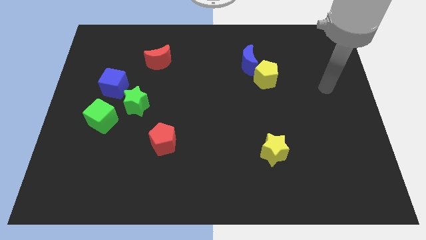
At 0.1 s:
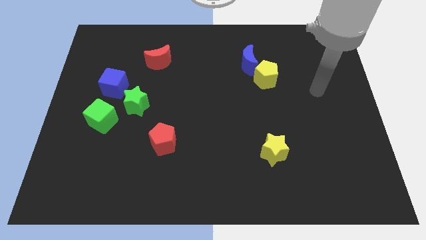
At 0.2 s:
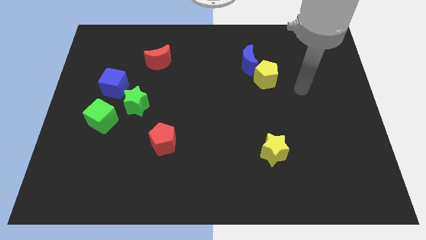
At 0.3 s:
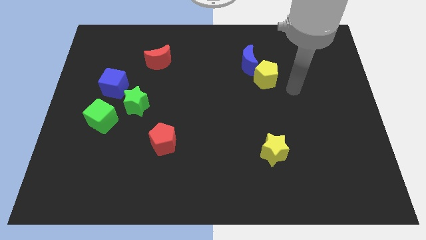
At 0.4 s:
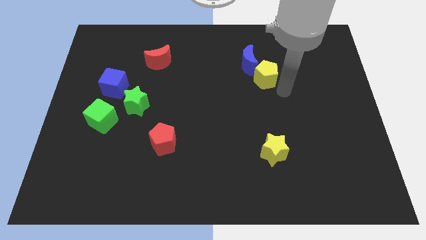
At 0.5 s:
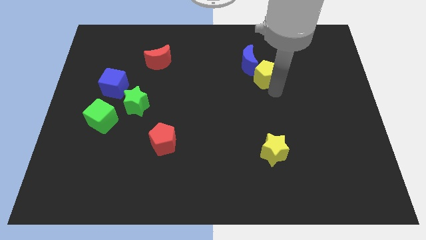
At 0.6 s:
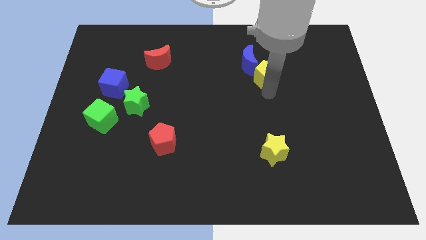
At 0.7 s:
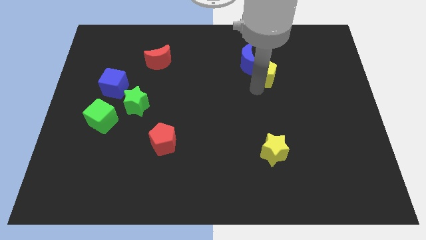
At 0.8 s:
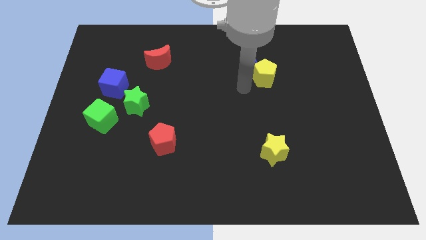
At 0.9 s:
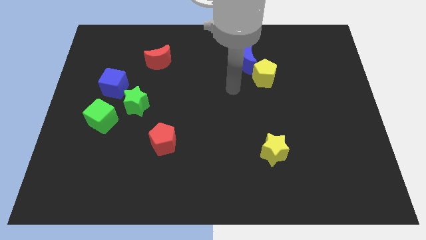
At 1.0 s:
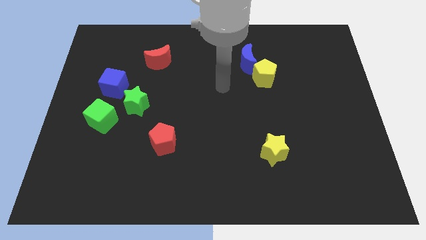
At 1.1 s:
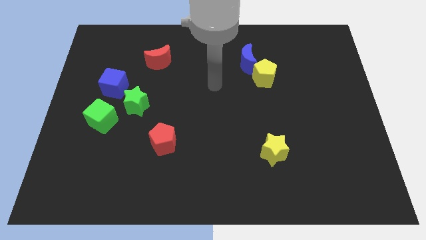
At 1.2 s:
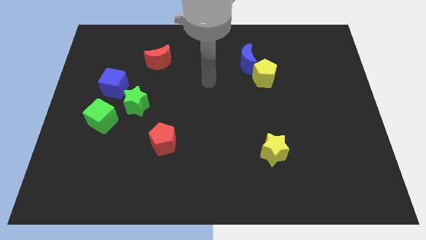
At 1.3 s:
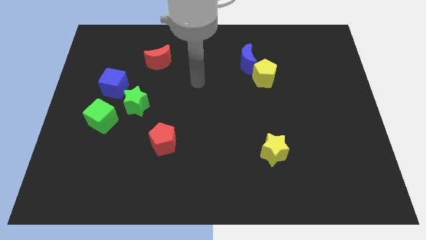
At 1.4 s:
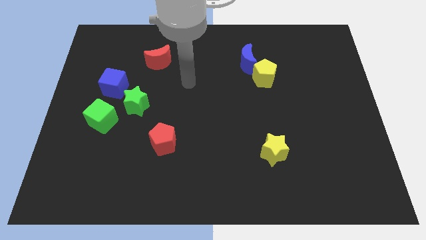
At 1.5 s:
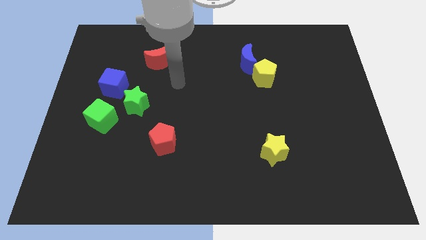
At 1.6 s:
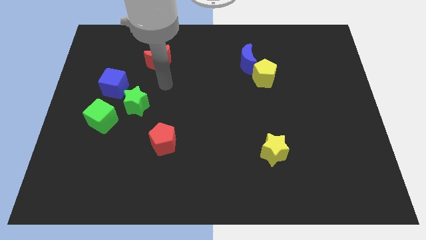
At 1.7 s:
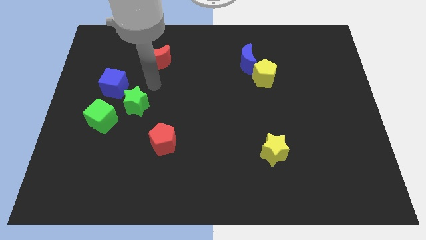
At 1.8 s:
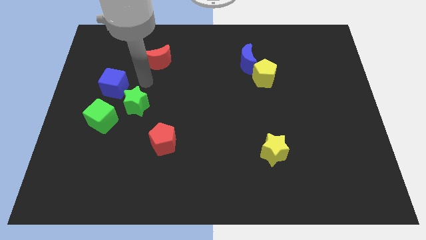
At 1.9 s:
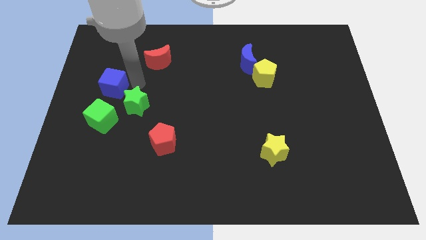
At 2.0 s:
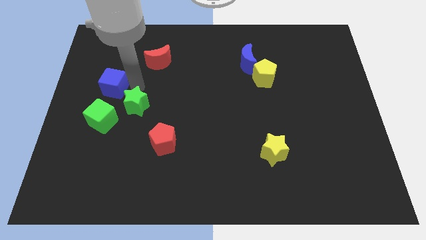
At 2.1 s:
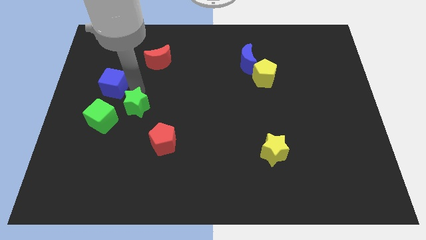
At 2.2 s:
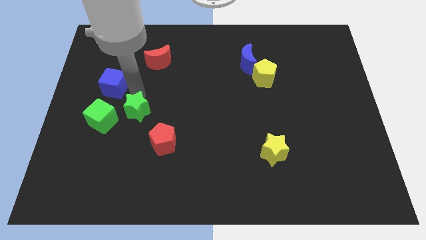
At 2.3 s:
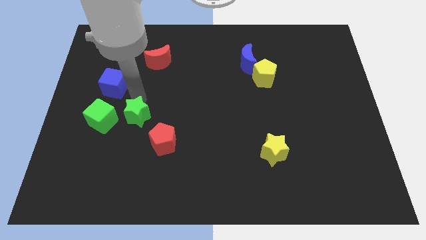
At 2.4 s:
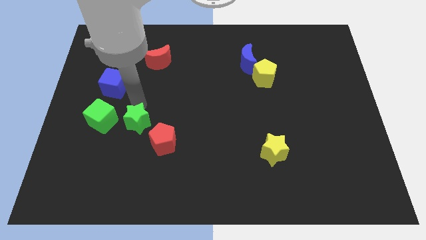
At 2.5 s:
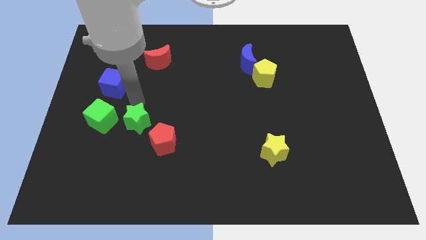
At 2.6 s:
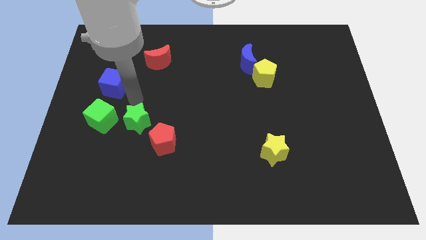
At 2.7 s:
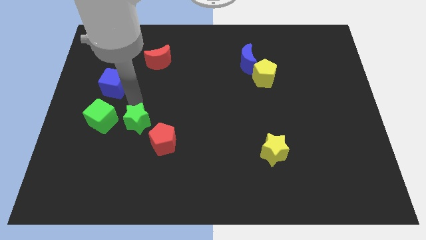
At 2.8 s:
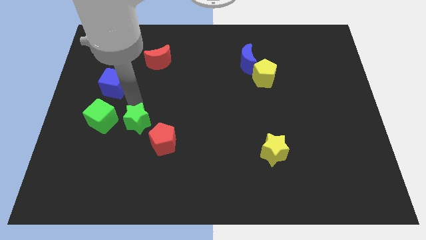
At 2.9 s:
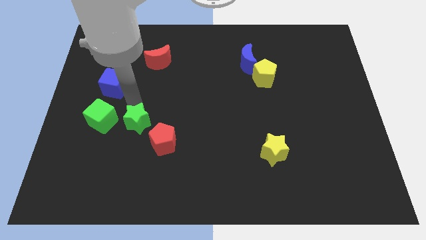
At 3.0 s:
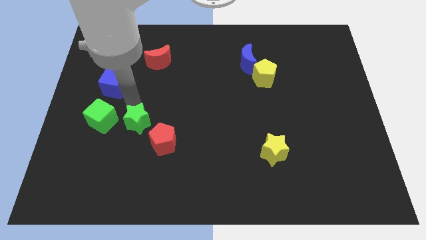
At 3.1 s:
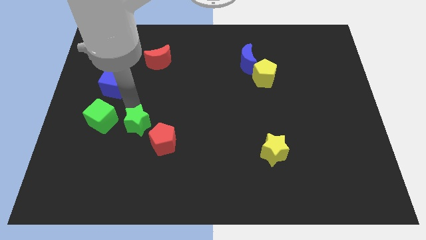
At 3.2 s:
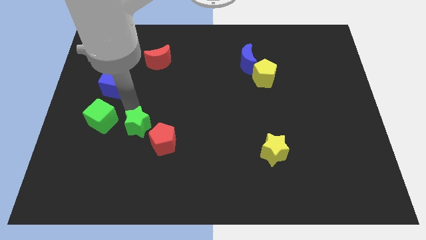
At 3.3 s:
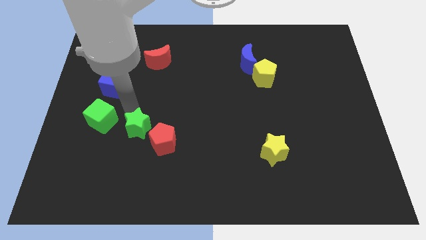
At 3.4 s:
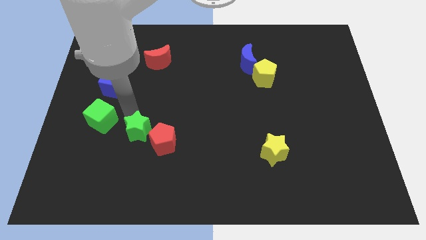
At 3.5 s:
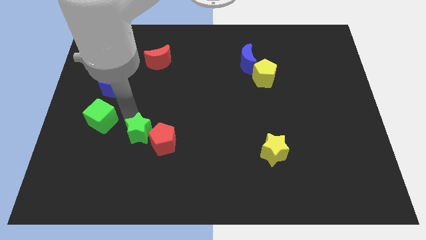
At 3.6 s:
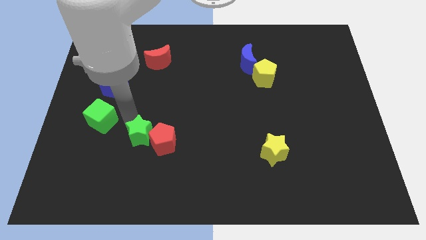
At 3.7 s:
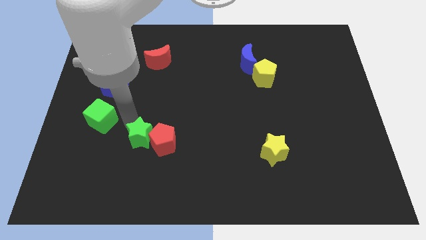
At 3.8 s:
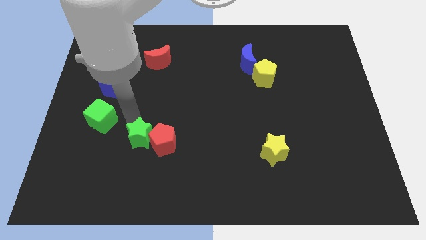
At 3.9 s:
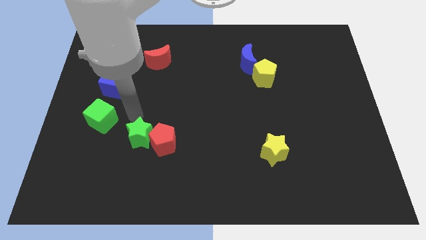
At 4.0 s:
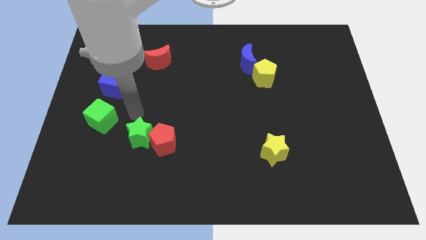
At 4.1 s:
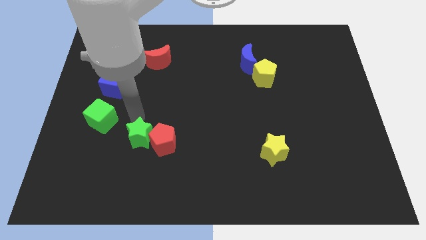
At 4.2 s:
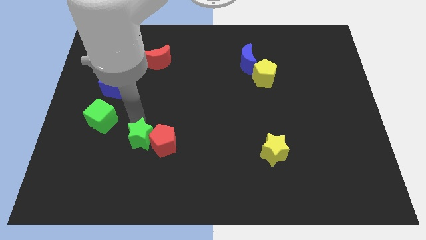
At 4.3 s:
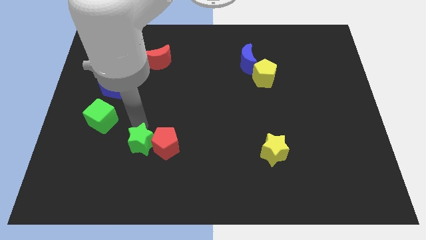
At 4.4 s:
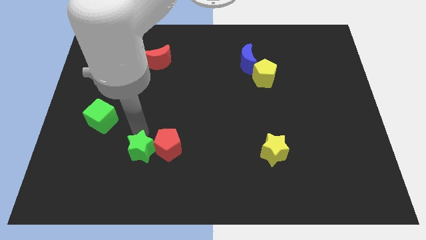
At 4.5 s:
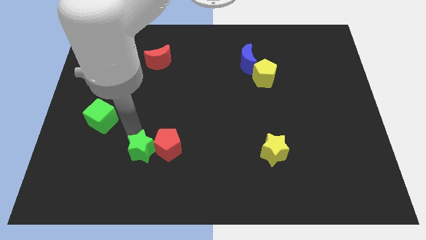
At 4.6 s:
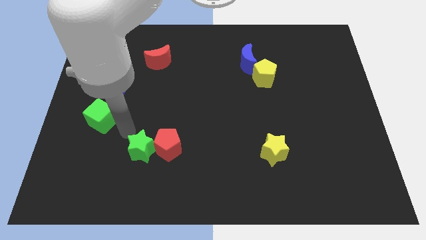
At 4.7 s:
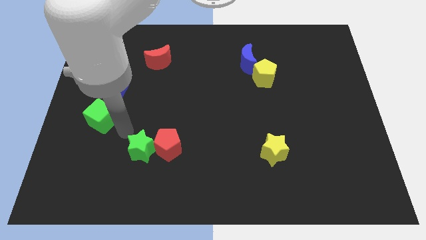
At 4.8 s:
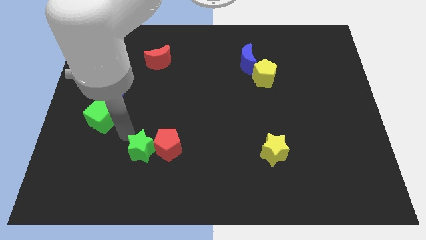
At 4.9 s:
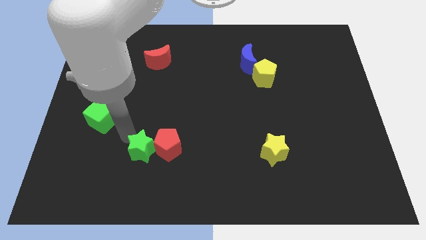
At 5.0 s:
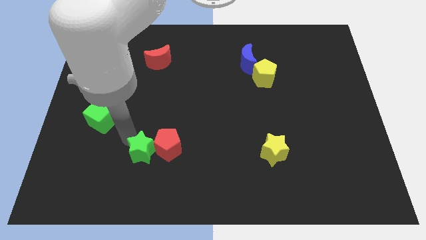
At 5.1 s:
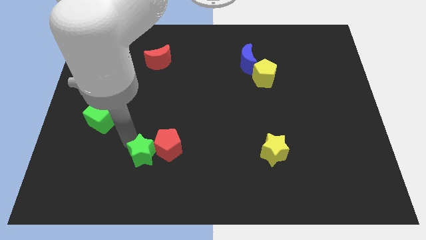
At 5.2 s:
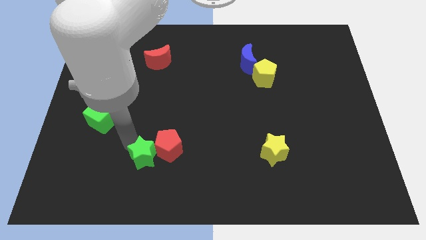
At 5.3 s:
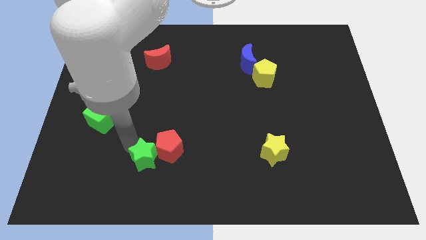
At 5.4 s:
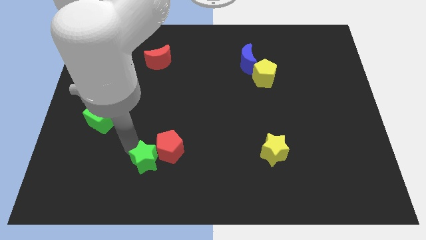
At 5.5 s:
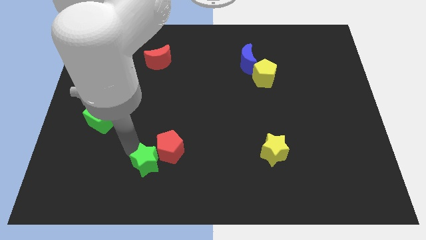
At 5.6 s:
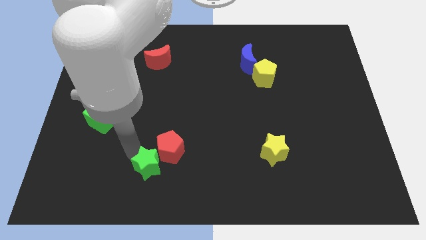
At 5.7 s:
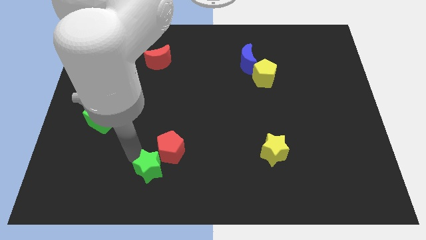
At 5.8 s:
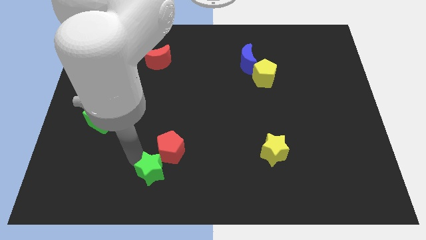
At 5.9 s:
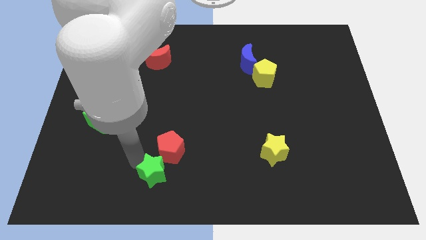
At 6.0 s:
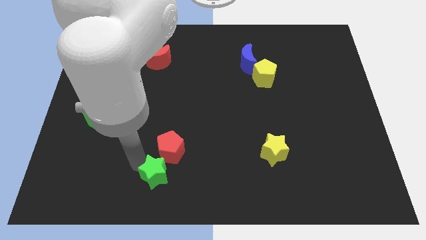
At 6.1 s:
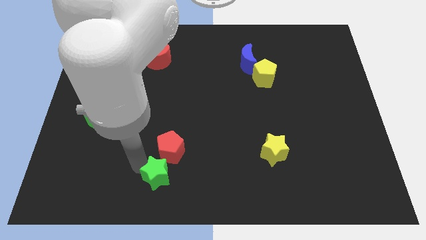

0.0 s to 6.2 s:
move the green star to the bottom side

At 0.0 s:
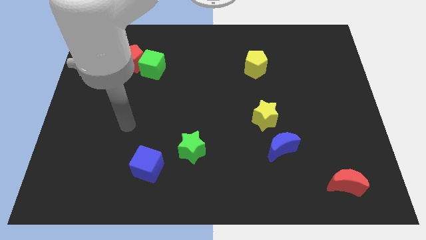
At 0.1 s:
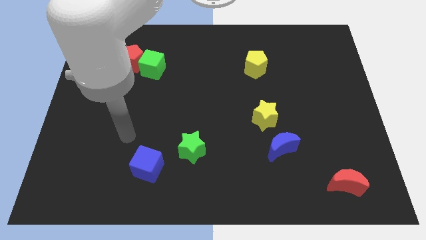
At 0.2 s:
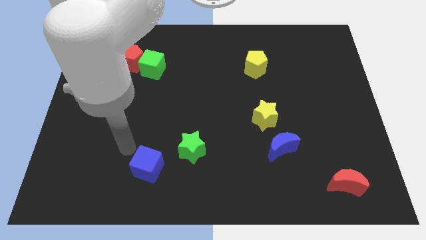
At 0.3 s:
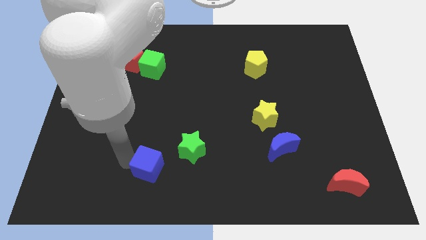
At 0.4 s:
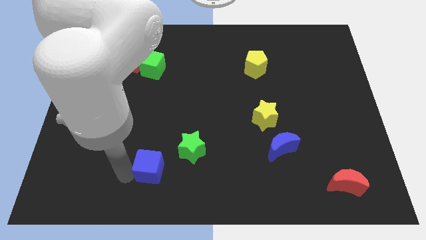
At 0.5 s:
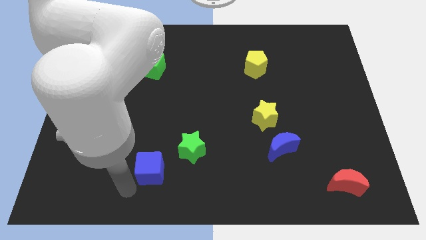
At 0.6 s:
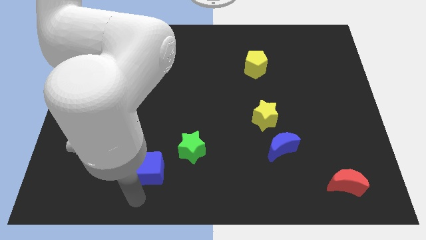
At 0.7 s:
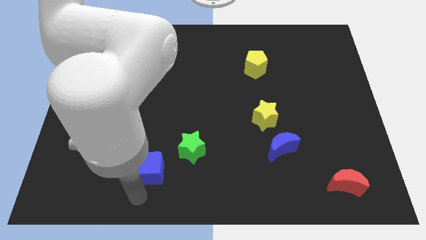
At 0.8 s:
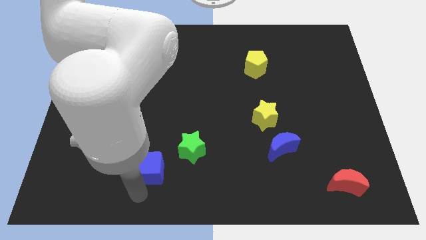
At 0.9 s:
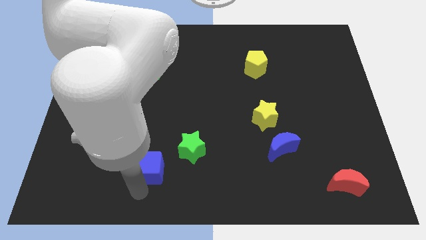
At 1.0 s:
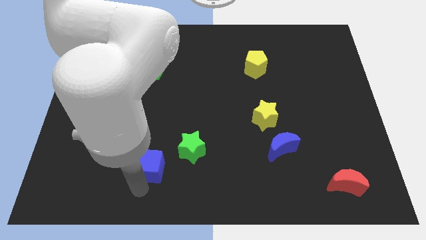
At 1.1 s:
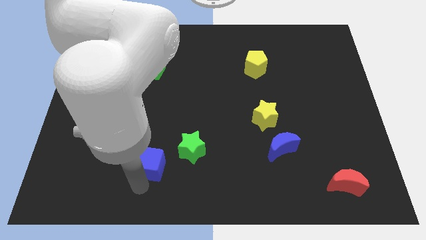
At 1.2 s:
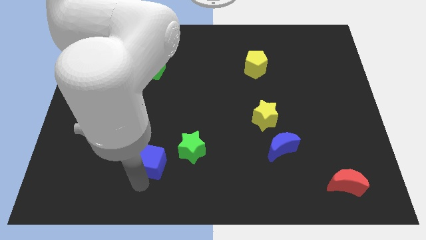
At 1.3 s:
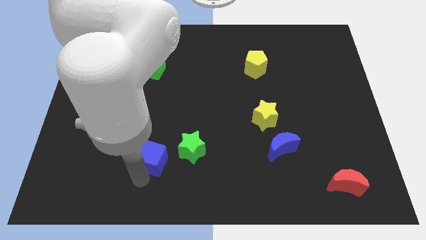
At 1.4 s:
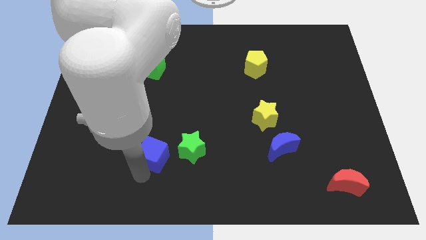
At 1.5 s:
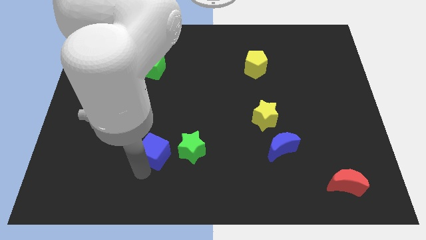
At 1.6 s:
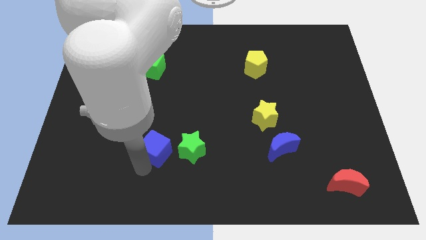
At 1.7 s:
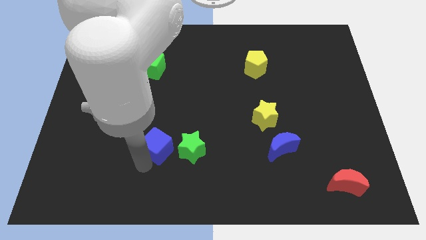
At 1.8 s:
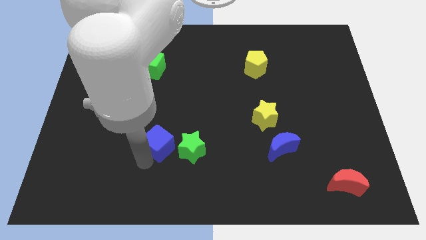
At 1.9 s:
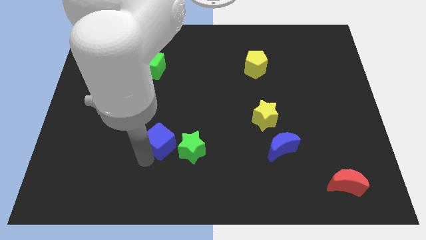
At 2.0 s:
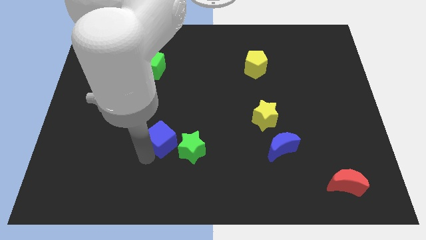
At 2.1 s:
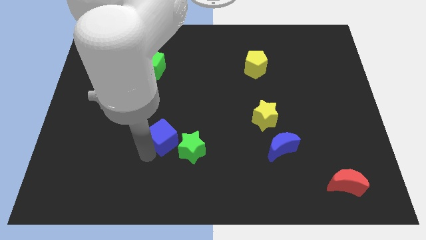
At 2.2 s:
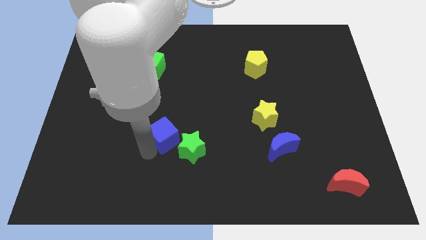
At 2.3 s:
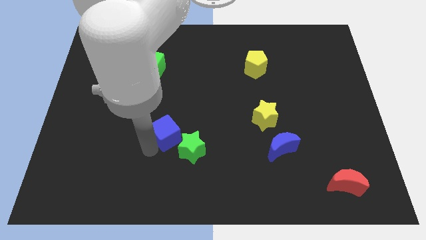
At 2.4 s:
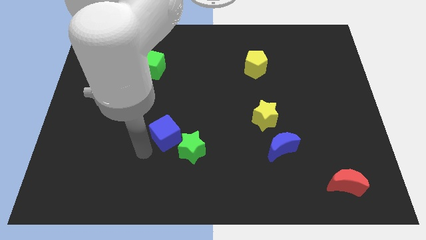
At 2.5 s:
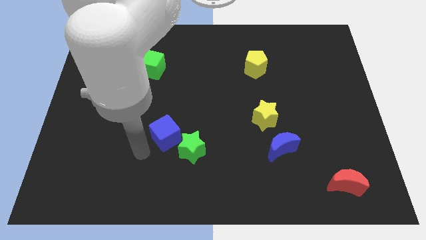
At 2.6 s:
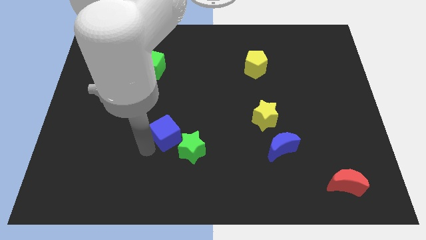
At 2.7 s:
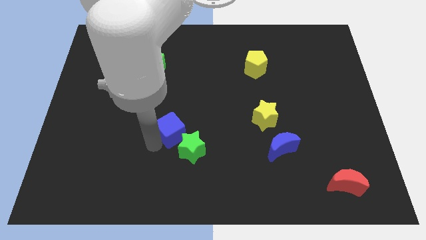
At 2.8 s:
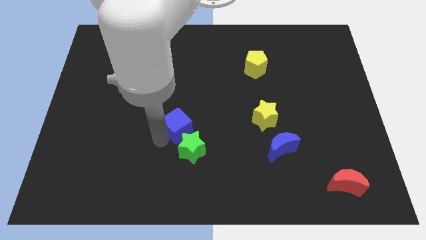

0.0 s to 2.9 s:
put the blue cube to the center
